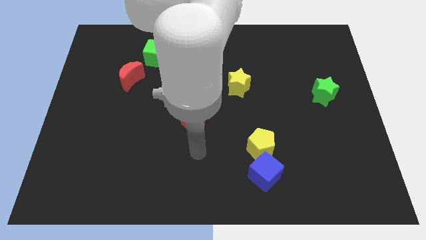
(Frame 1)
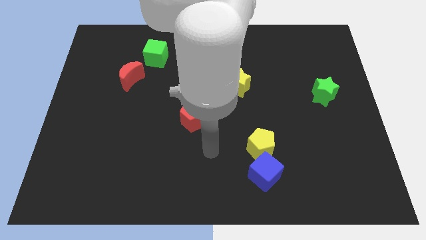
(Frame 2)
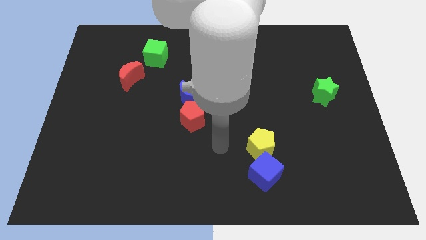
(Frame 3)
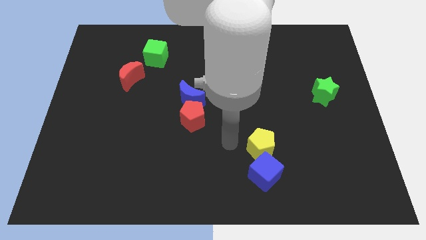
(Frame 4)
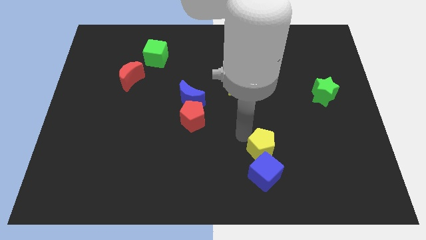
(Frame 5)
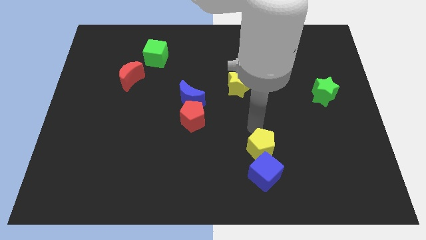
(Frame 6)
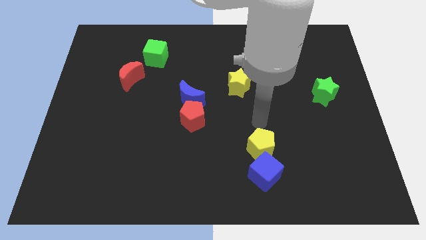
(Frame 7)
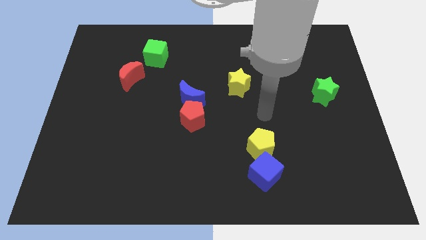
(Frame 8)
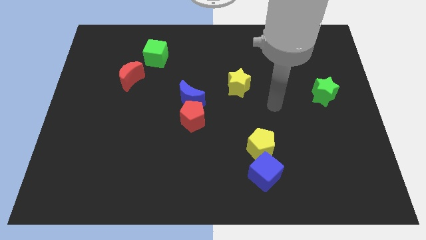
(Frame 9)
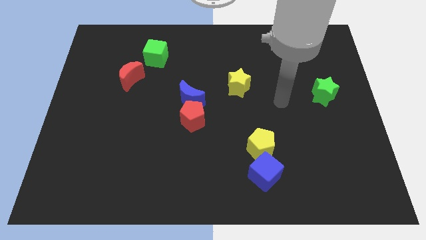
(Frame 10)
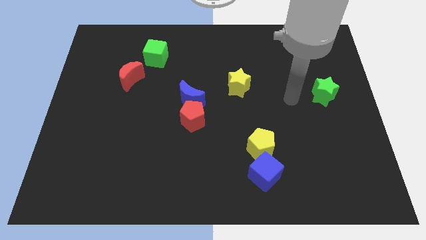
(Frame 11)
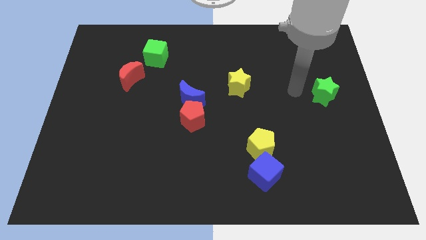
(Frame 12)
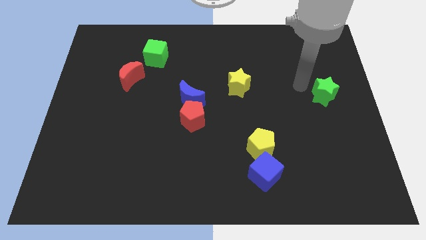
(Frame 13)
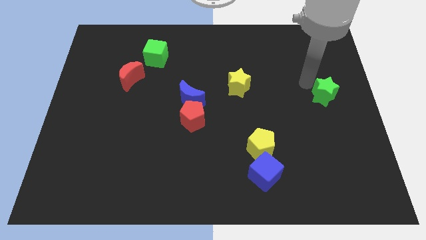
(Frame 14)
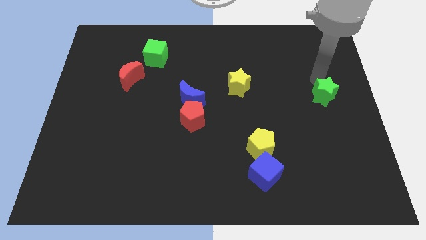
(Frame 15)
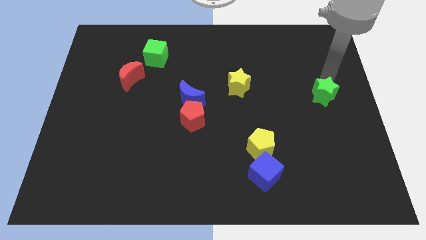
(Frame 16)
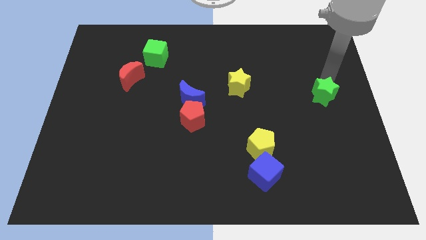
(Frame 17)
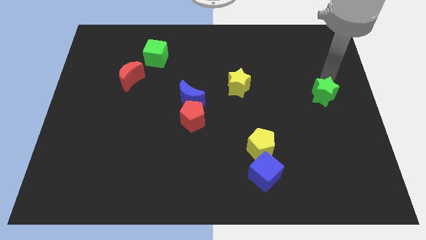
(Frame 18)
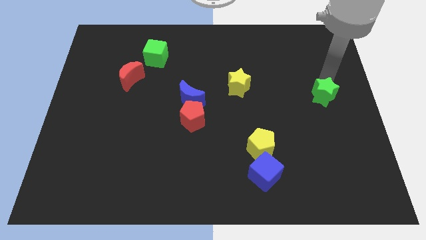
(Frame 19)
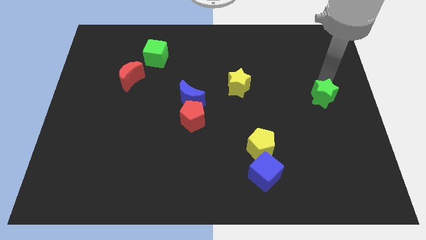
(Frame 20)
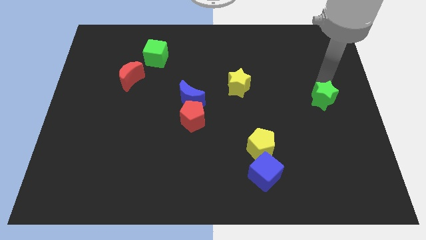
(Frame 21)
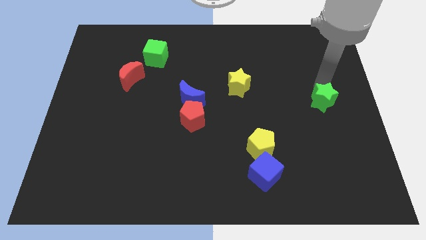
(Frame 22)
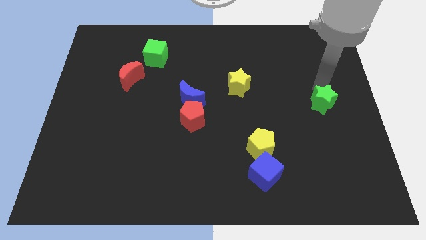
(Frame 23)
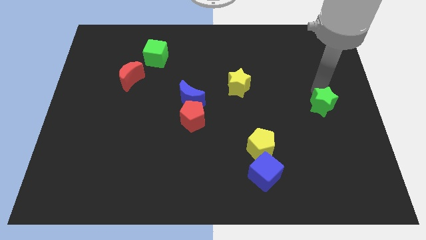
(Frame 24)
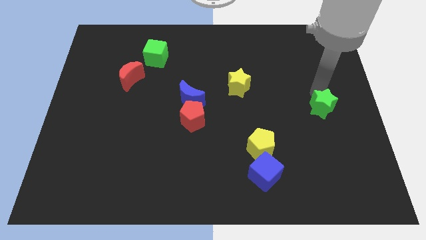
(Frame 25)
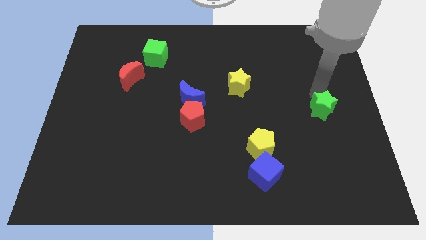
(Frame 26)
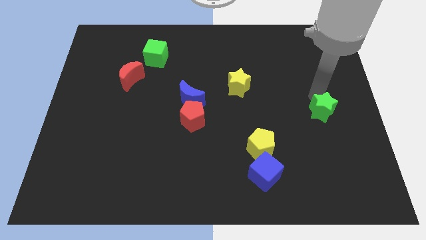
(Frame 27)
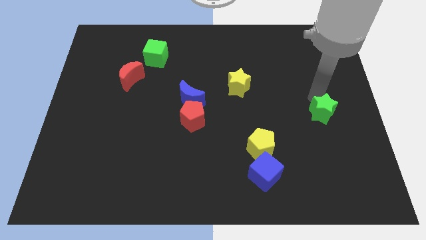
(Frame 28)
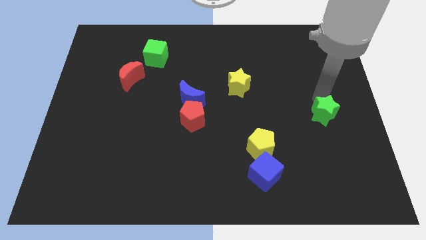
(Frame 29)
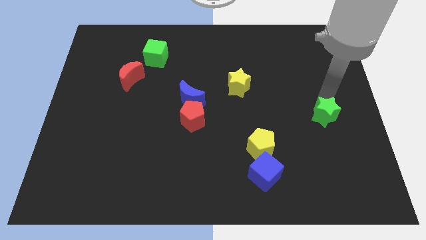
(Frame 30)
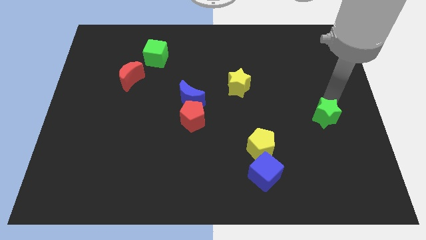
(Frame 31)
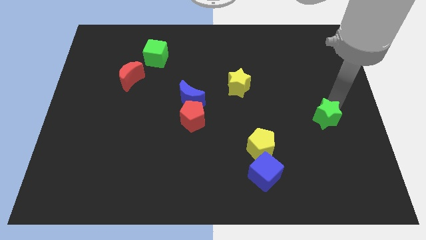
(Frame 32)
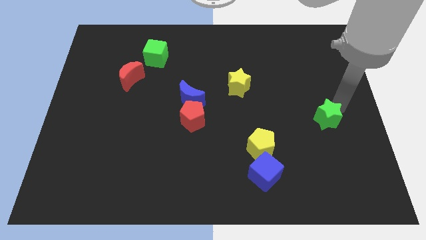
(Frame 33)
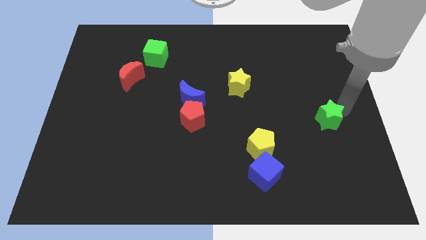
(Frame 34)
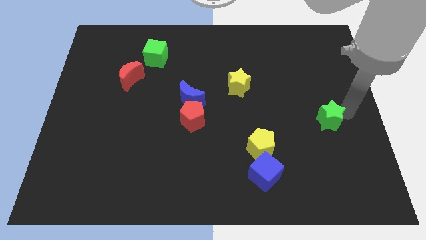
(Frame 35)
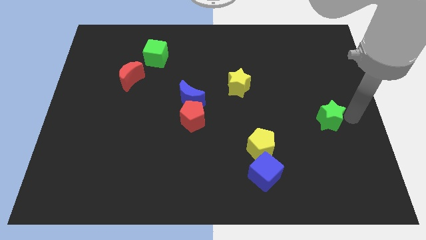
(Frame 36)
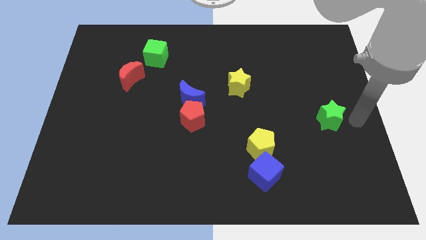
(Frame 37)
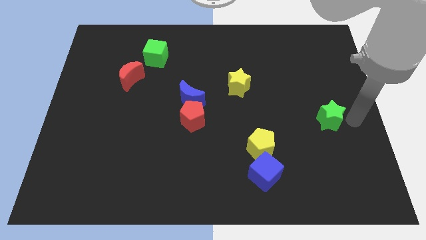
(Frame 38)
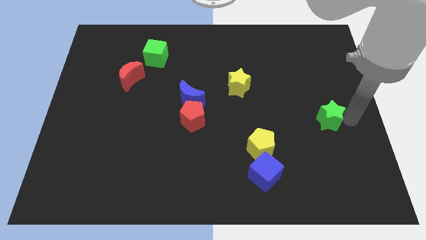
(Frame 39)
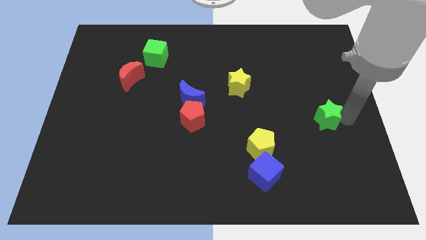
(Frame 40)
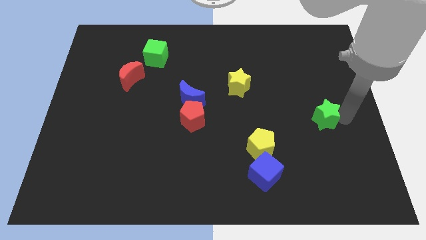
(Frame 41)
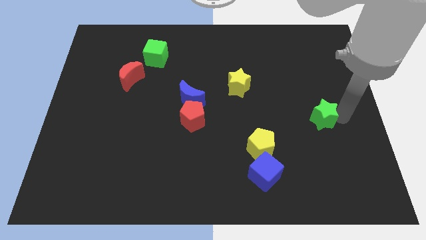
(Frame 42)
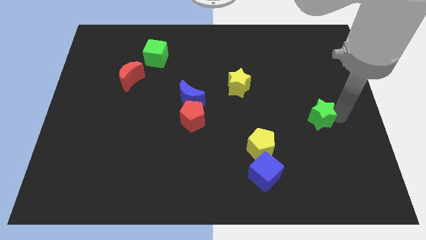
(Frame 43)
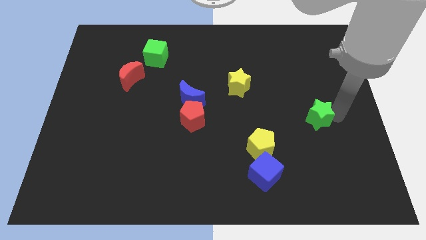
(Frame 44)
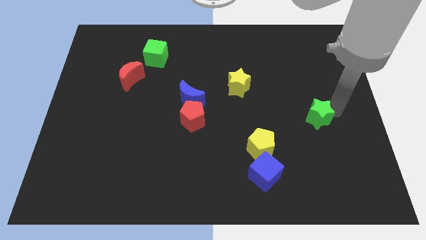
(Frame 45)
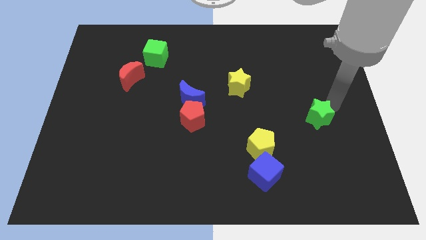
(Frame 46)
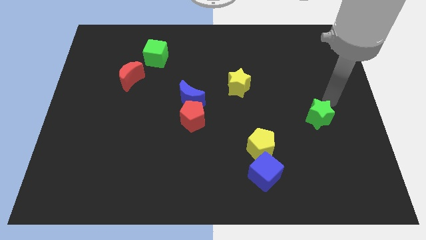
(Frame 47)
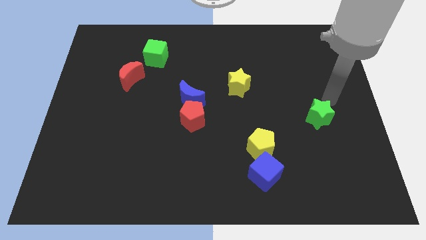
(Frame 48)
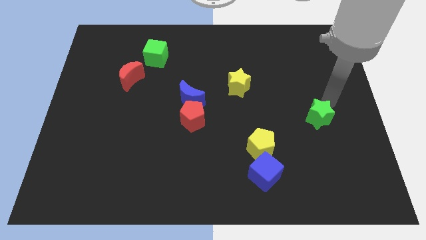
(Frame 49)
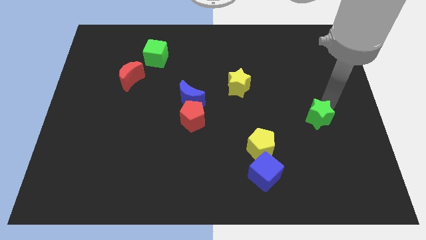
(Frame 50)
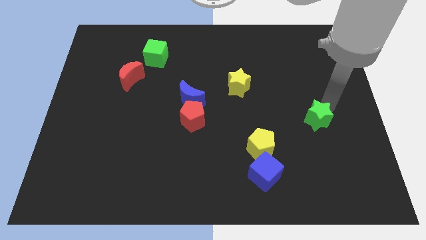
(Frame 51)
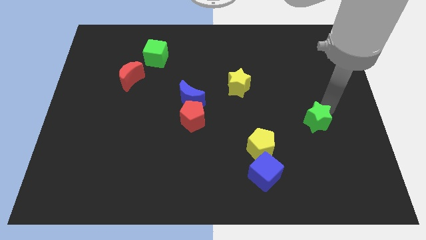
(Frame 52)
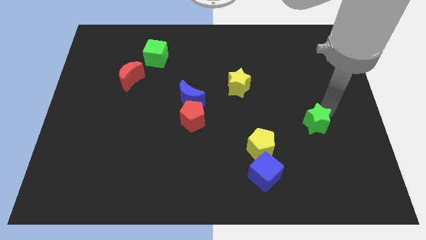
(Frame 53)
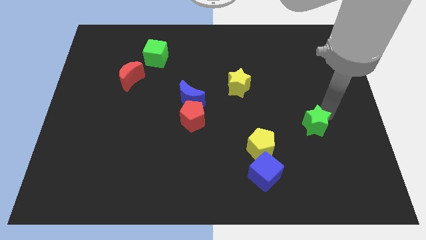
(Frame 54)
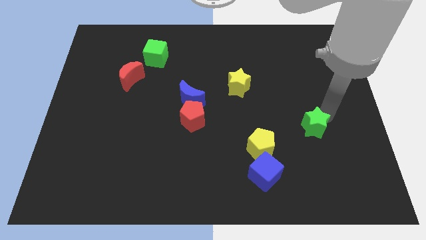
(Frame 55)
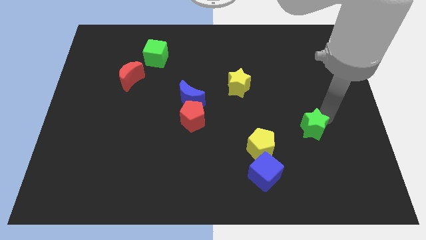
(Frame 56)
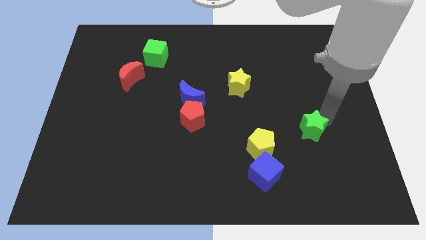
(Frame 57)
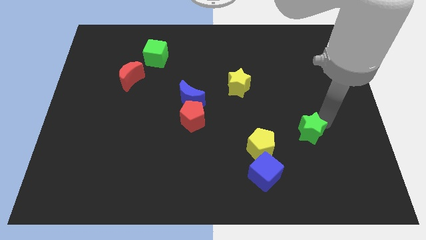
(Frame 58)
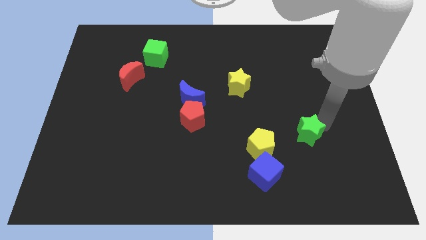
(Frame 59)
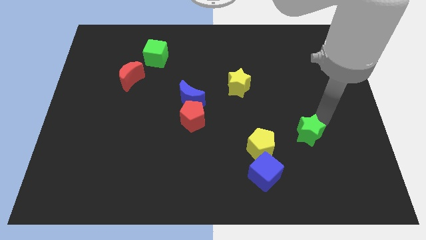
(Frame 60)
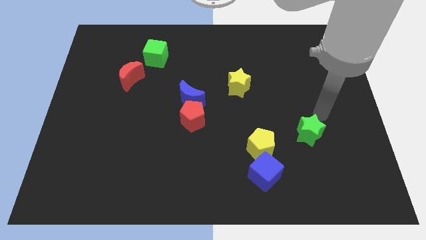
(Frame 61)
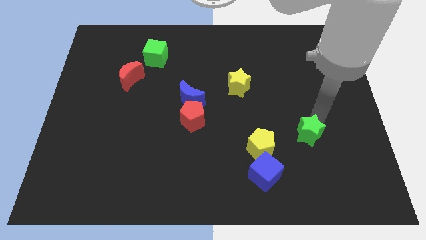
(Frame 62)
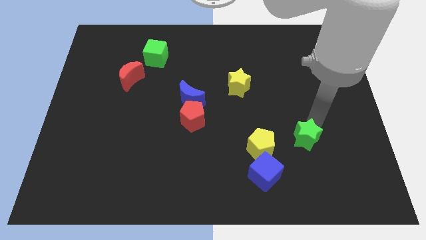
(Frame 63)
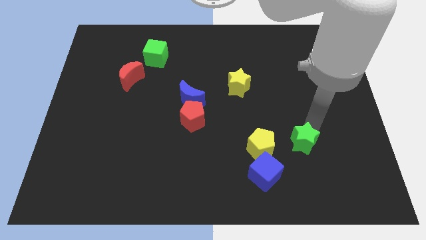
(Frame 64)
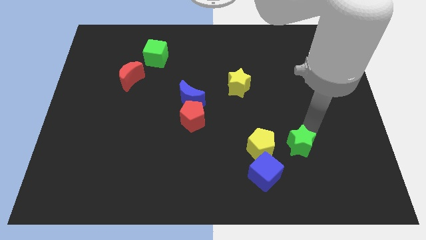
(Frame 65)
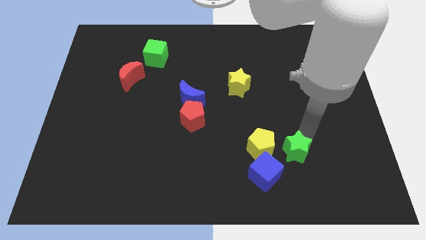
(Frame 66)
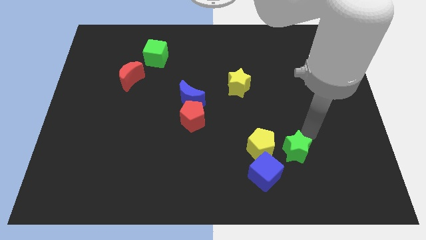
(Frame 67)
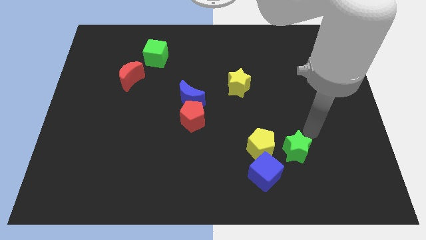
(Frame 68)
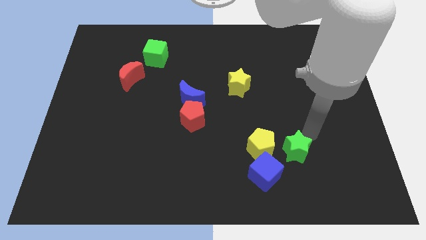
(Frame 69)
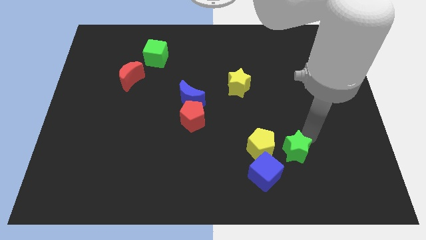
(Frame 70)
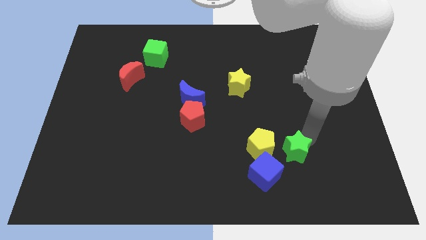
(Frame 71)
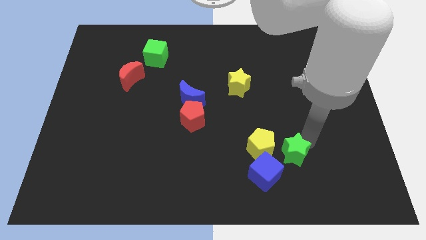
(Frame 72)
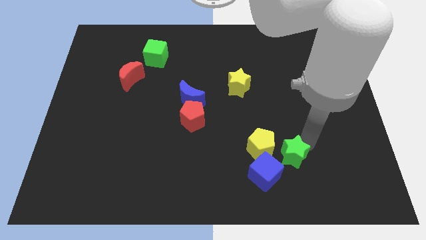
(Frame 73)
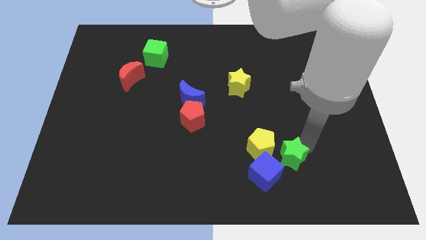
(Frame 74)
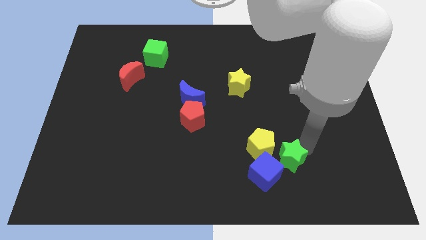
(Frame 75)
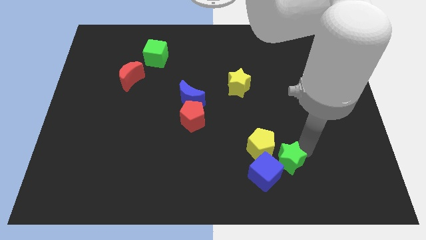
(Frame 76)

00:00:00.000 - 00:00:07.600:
put the green star to the blue cube
